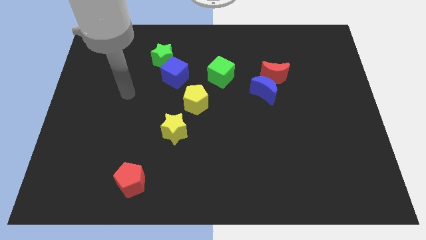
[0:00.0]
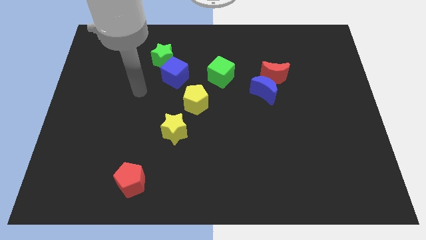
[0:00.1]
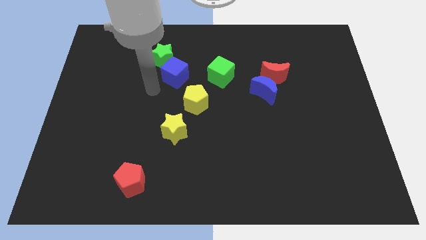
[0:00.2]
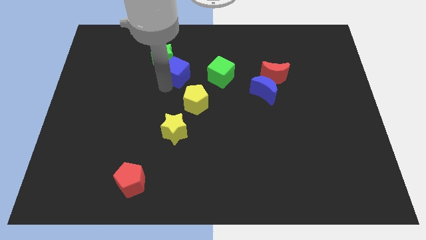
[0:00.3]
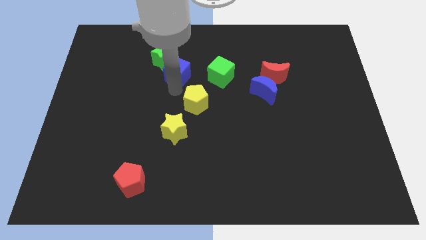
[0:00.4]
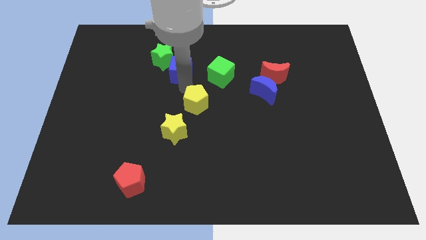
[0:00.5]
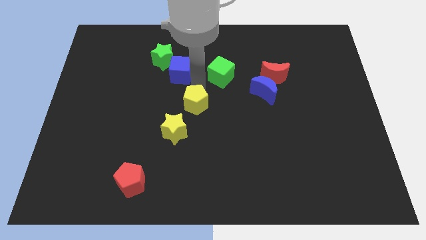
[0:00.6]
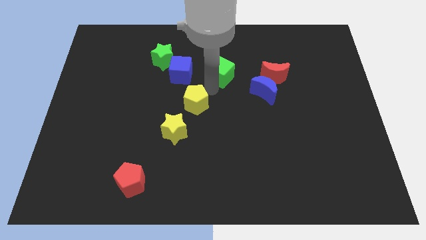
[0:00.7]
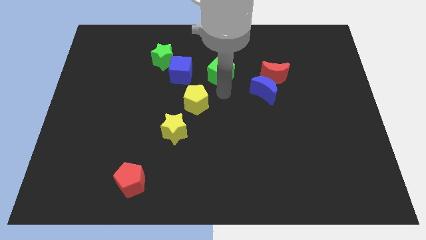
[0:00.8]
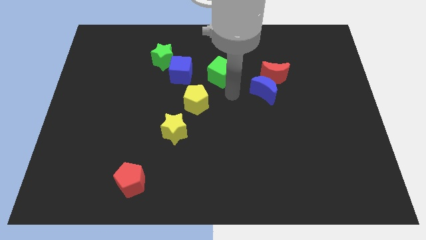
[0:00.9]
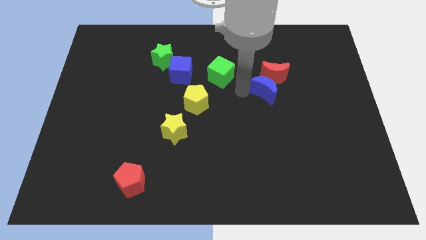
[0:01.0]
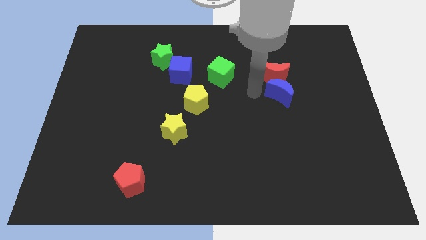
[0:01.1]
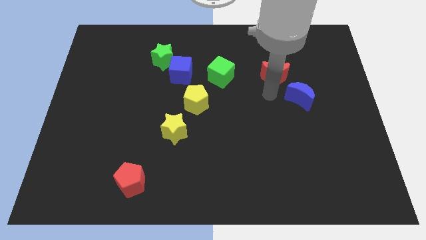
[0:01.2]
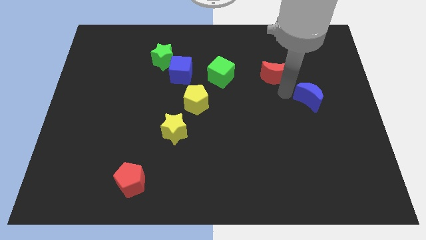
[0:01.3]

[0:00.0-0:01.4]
move the red moon away from the blue moon

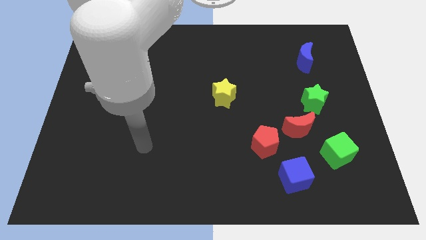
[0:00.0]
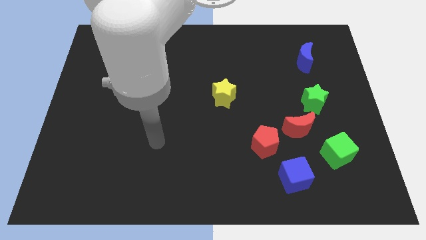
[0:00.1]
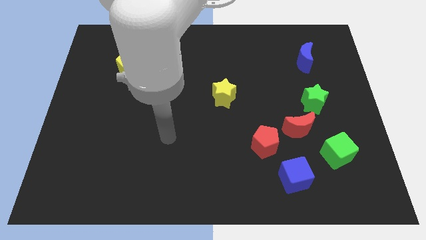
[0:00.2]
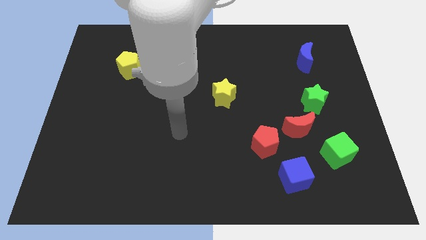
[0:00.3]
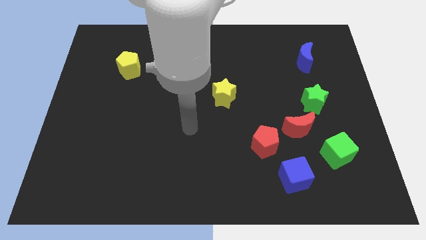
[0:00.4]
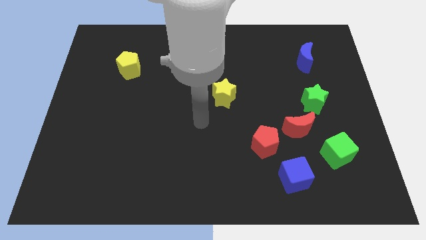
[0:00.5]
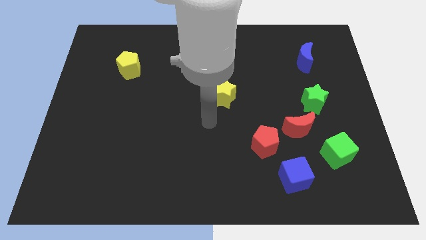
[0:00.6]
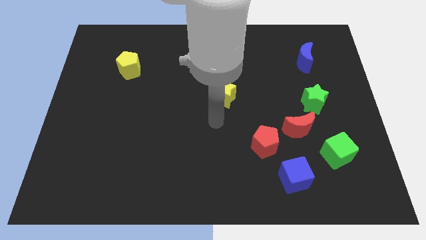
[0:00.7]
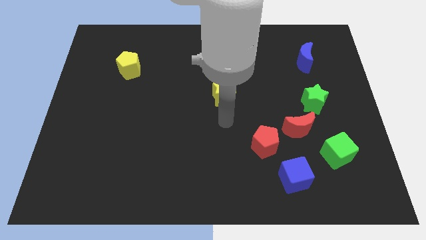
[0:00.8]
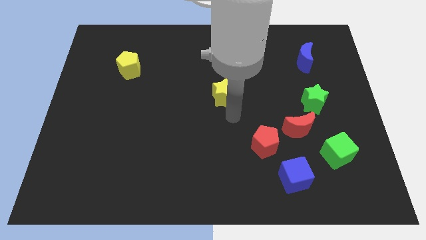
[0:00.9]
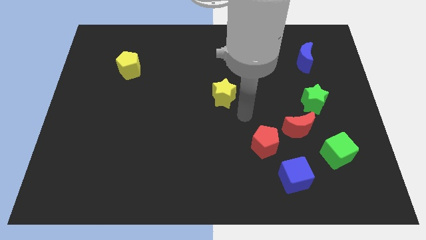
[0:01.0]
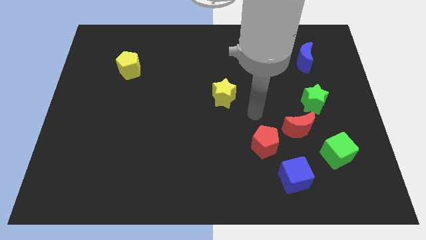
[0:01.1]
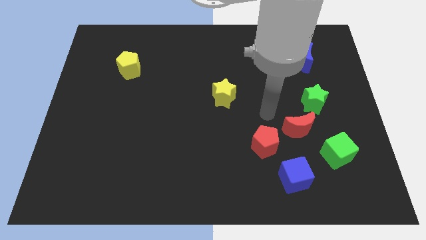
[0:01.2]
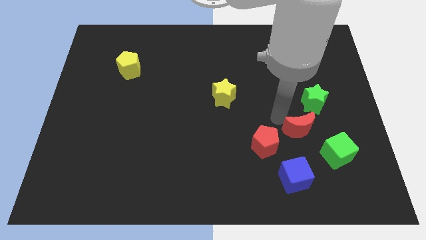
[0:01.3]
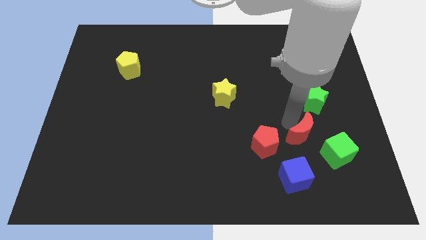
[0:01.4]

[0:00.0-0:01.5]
pull the green star apart from the red moon

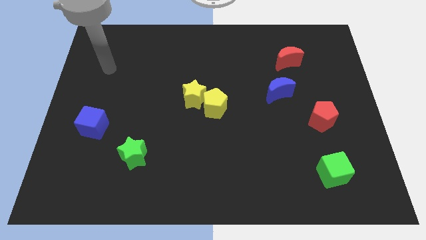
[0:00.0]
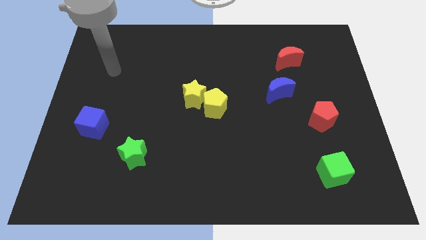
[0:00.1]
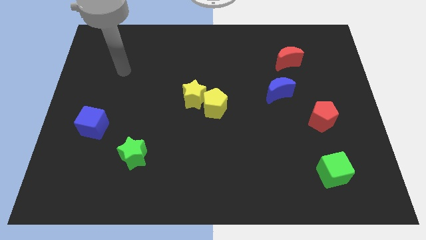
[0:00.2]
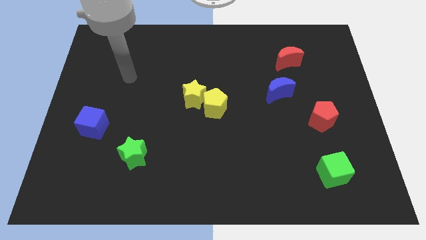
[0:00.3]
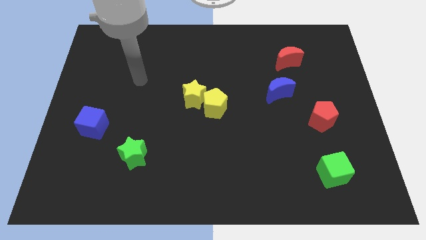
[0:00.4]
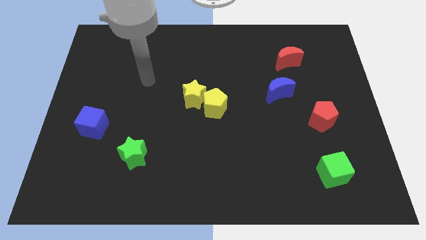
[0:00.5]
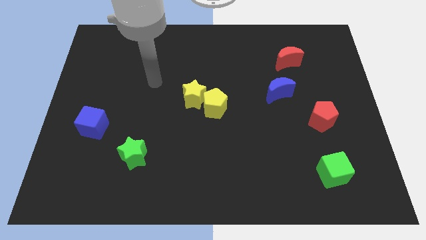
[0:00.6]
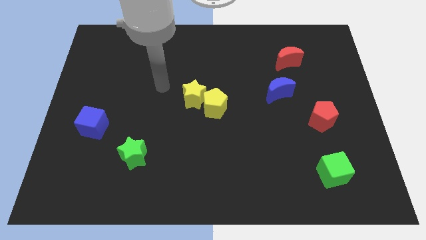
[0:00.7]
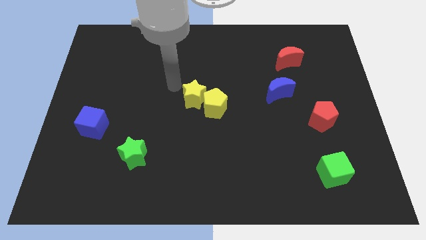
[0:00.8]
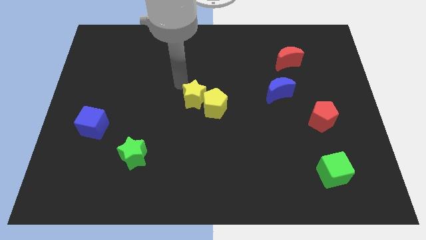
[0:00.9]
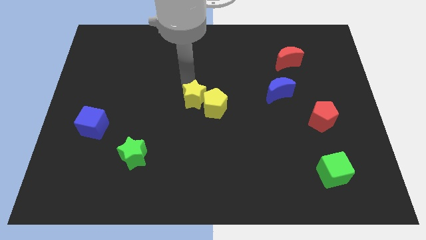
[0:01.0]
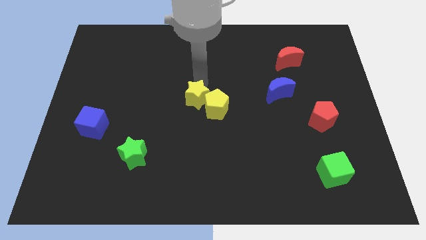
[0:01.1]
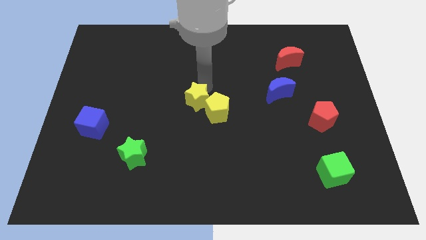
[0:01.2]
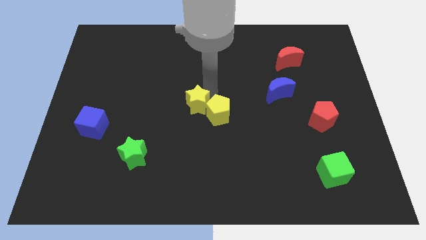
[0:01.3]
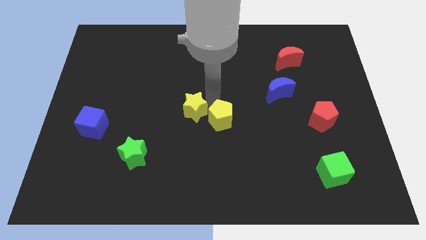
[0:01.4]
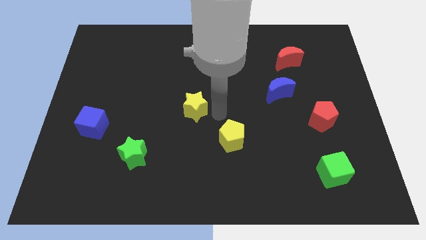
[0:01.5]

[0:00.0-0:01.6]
separate the yellow star from the yellow pentagon

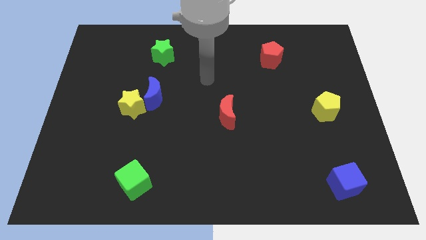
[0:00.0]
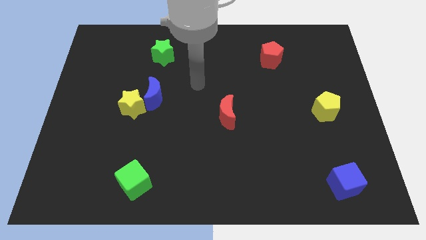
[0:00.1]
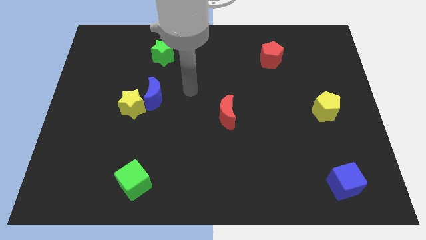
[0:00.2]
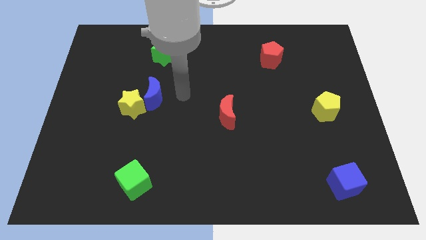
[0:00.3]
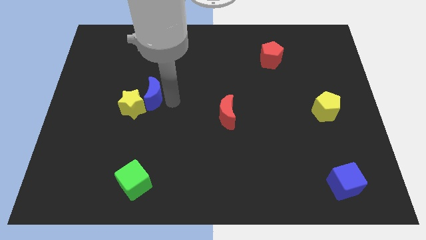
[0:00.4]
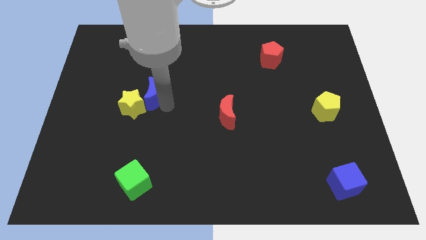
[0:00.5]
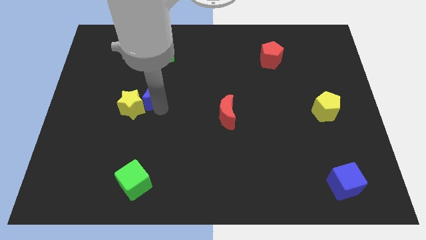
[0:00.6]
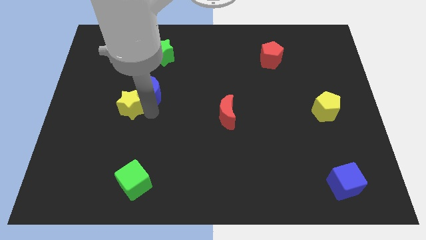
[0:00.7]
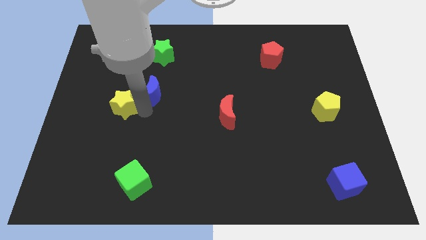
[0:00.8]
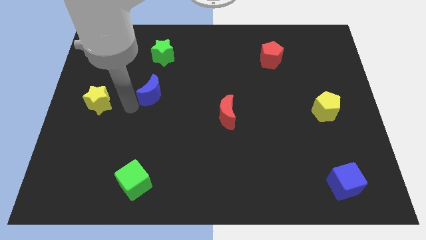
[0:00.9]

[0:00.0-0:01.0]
move the blue moon away from the yellow star

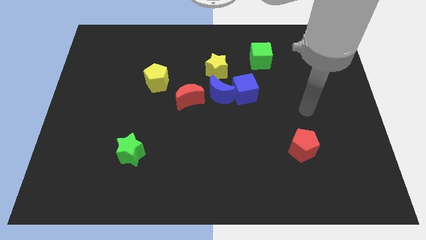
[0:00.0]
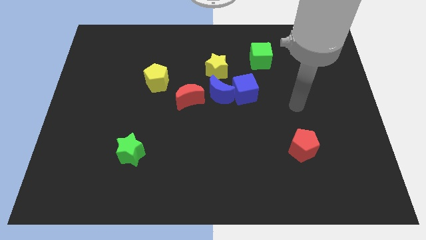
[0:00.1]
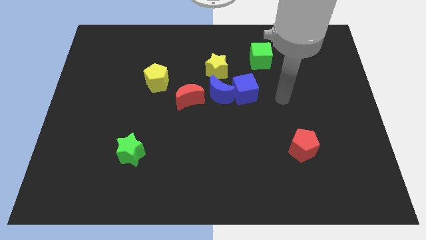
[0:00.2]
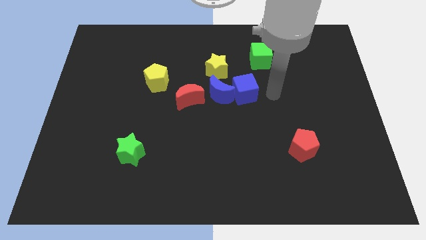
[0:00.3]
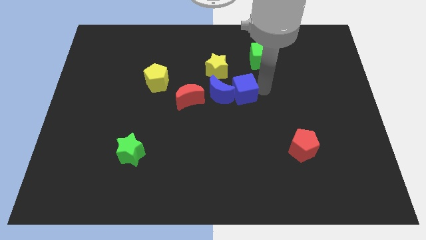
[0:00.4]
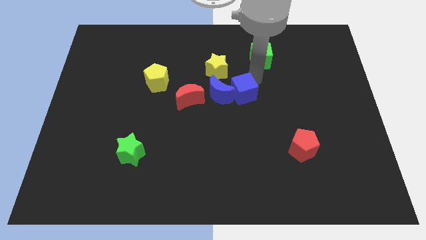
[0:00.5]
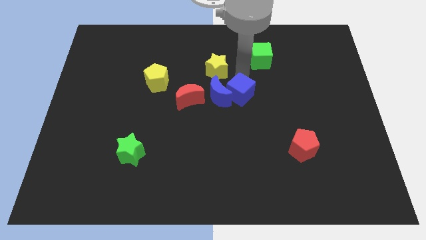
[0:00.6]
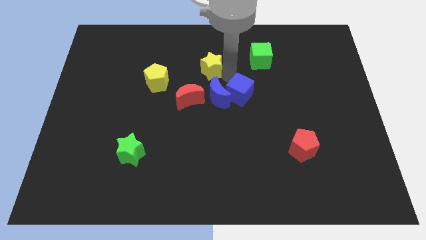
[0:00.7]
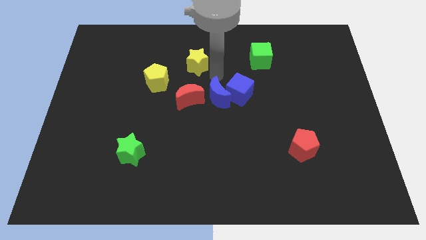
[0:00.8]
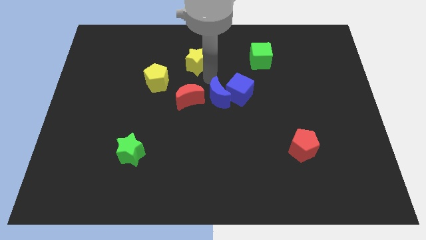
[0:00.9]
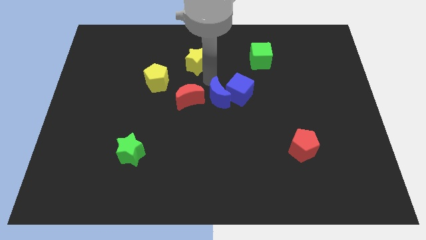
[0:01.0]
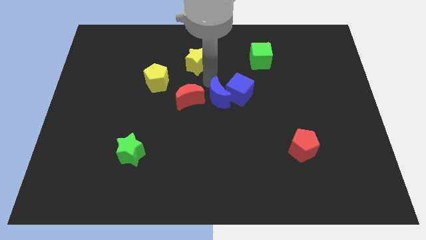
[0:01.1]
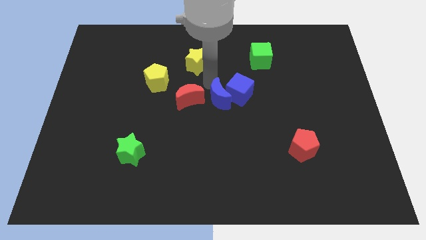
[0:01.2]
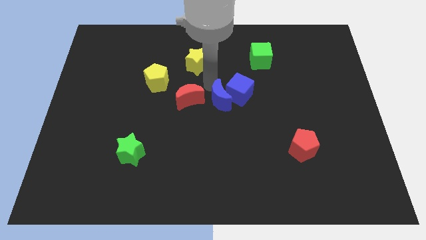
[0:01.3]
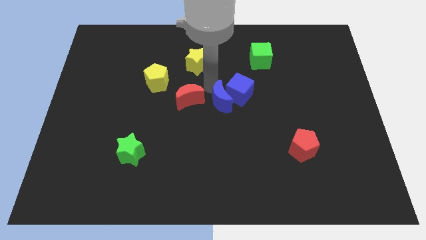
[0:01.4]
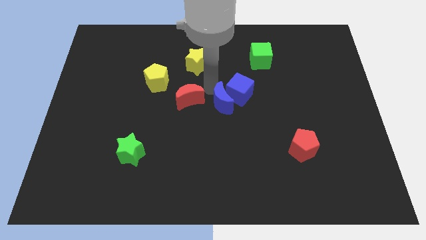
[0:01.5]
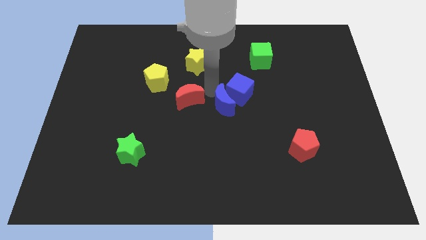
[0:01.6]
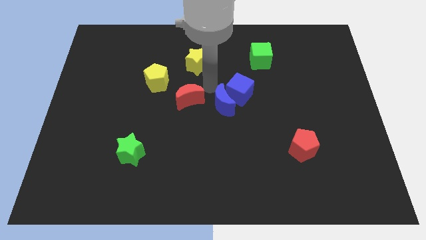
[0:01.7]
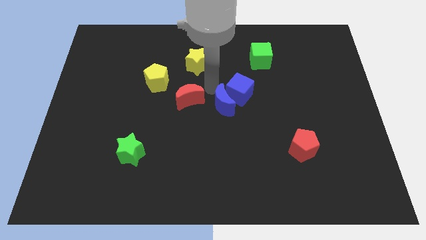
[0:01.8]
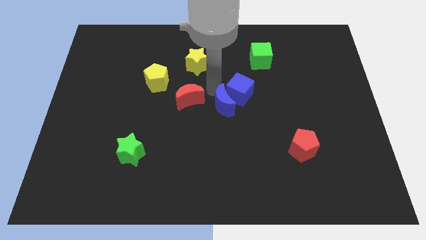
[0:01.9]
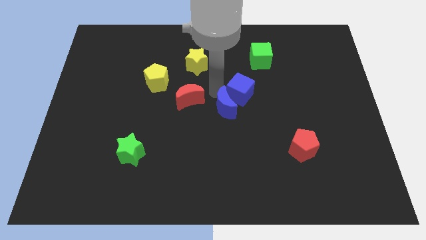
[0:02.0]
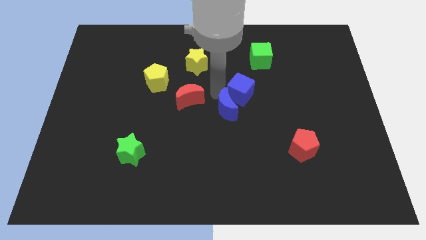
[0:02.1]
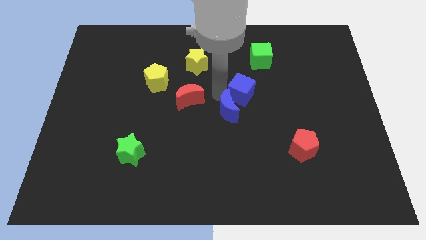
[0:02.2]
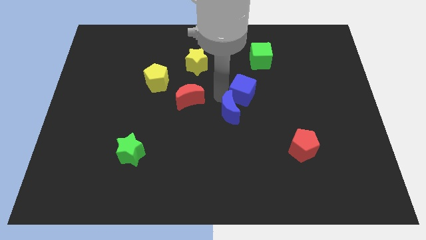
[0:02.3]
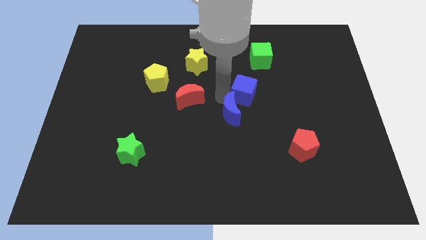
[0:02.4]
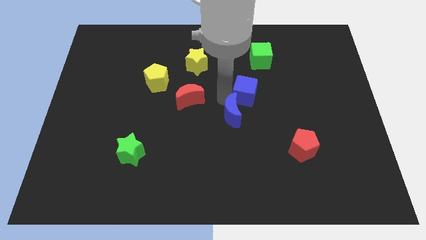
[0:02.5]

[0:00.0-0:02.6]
move the blue moon away from the blue cube, red moon, and yellow star

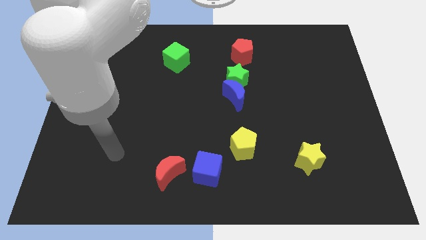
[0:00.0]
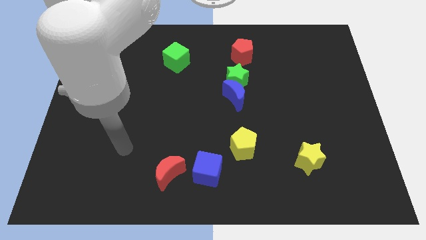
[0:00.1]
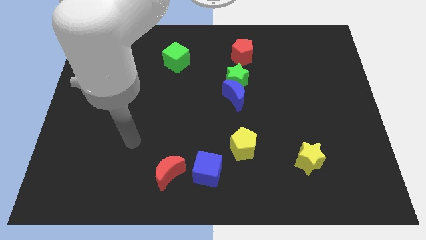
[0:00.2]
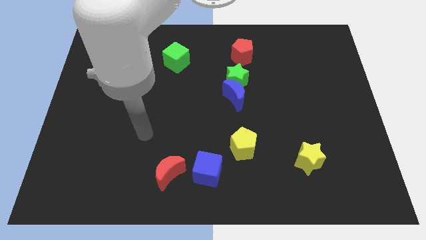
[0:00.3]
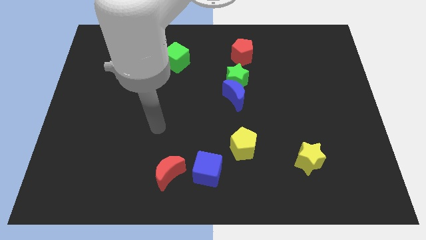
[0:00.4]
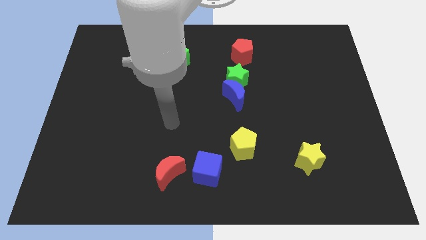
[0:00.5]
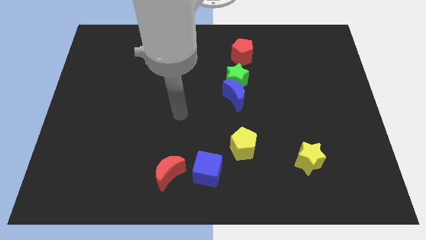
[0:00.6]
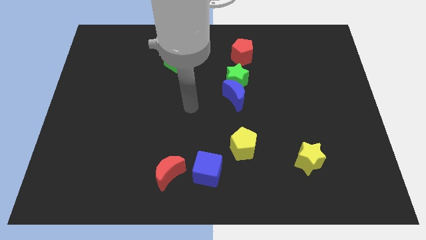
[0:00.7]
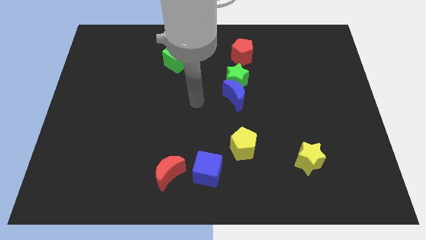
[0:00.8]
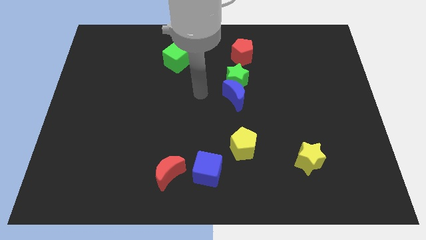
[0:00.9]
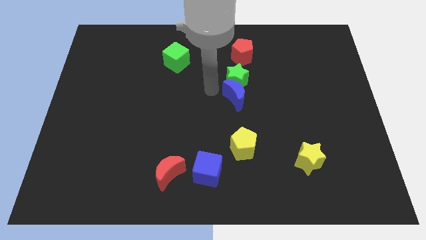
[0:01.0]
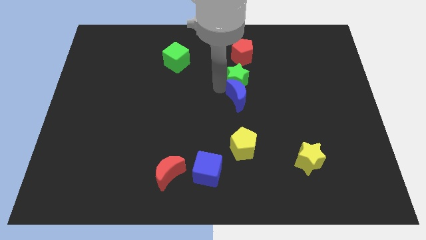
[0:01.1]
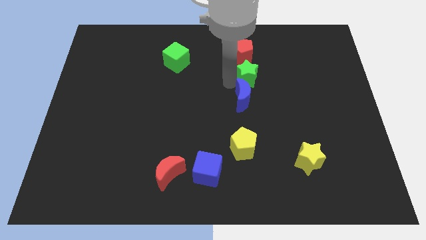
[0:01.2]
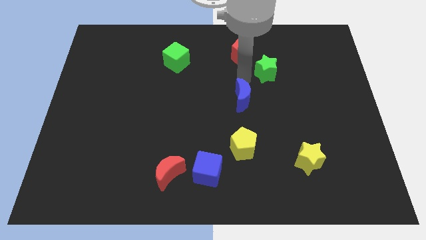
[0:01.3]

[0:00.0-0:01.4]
separate the blue moon from the green star
